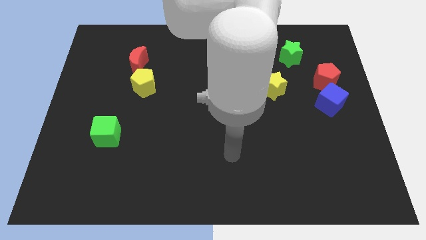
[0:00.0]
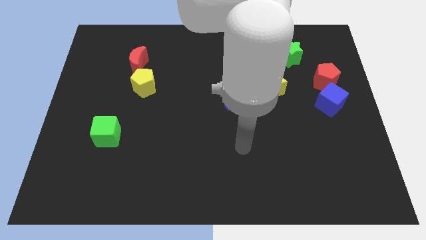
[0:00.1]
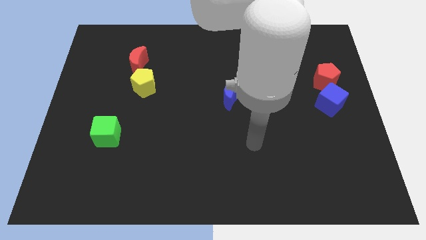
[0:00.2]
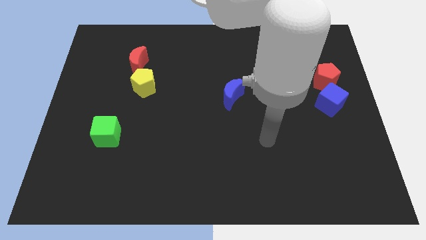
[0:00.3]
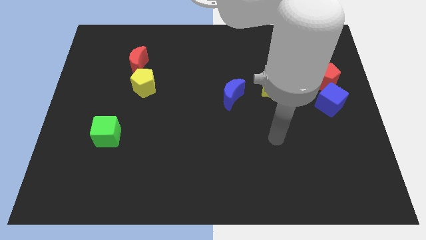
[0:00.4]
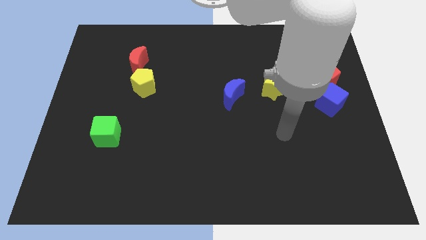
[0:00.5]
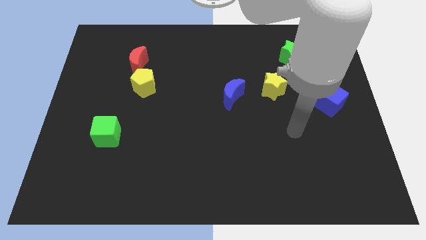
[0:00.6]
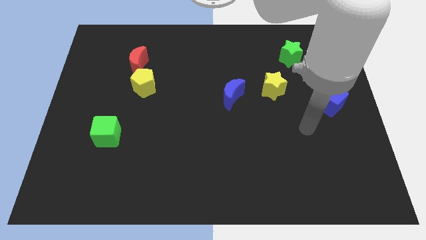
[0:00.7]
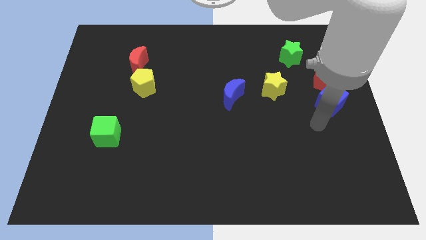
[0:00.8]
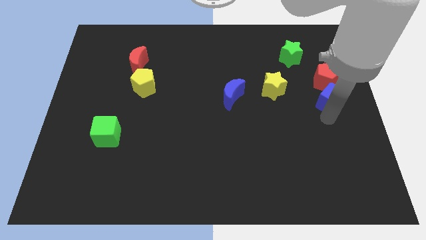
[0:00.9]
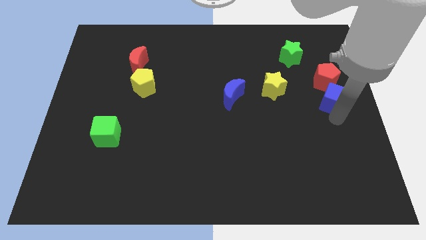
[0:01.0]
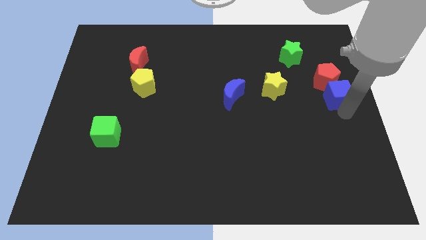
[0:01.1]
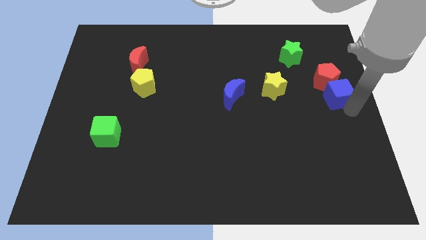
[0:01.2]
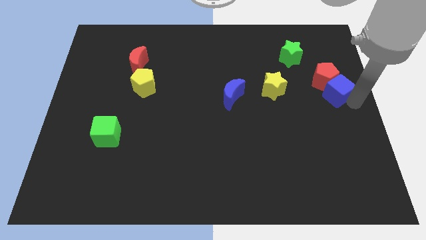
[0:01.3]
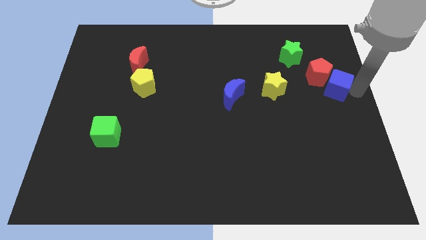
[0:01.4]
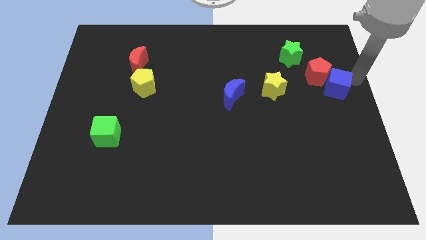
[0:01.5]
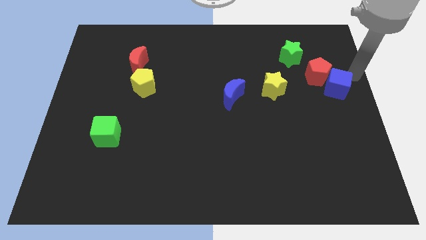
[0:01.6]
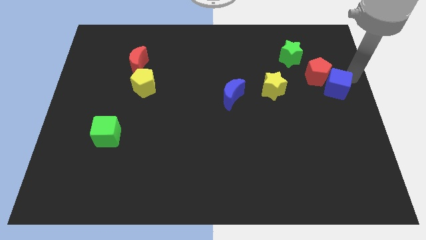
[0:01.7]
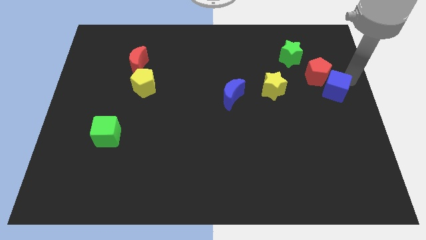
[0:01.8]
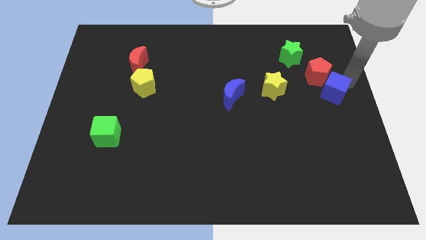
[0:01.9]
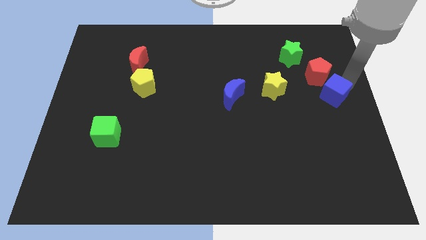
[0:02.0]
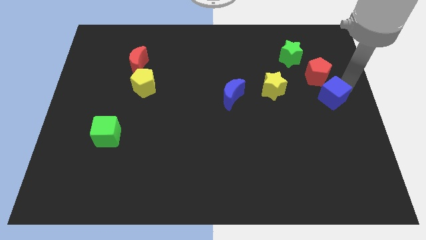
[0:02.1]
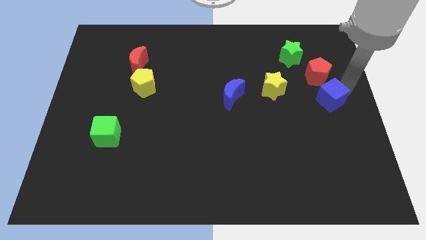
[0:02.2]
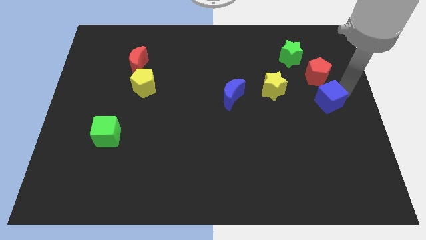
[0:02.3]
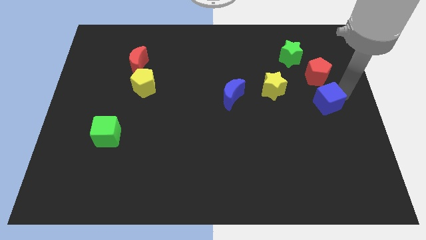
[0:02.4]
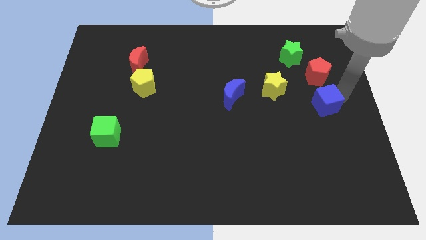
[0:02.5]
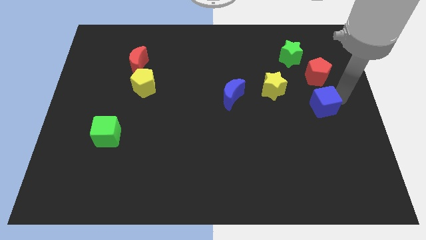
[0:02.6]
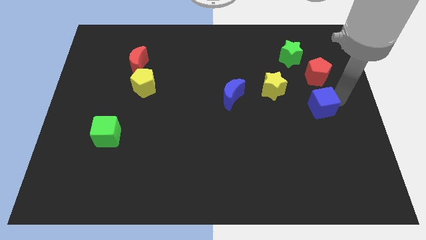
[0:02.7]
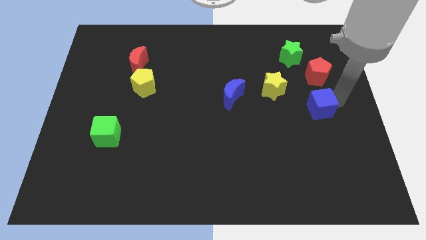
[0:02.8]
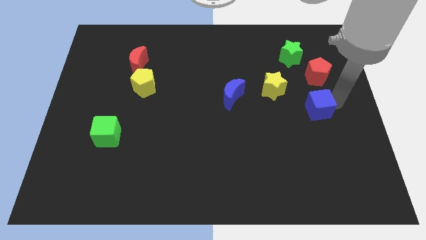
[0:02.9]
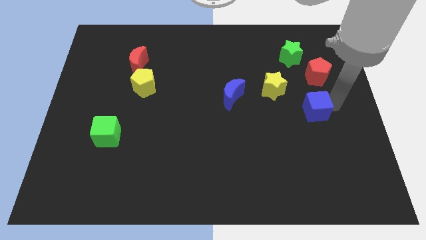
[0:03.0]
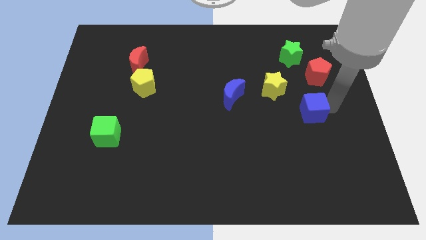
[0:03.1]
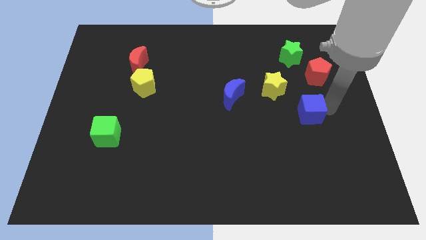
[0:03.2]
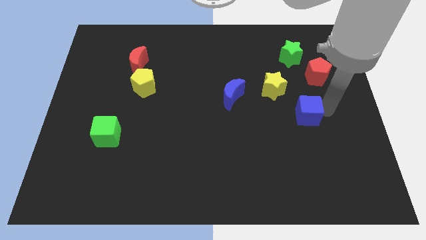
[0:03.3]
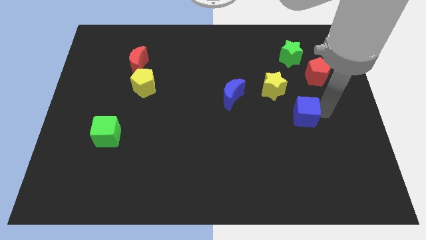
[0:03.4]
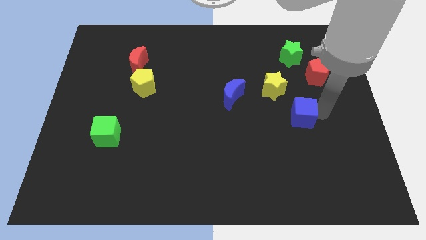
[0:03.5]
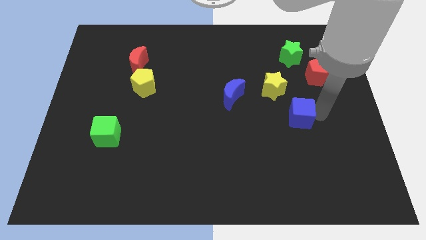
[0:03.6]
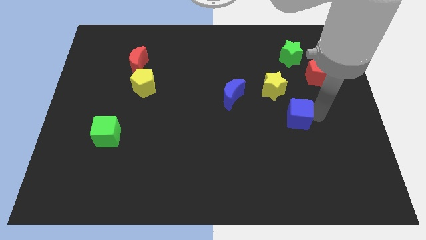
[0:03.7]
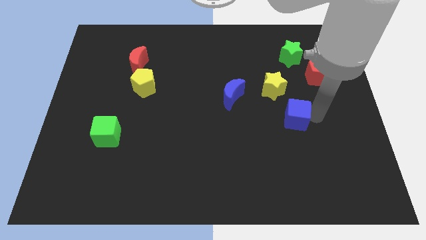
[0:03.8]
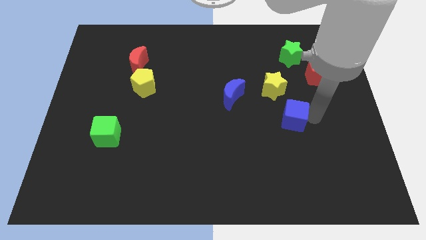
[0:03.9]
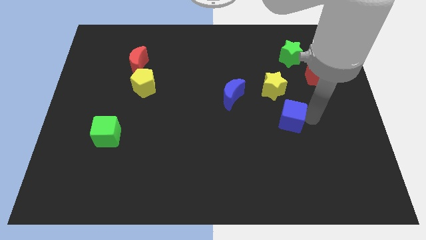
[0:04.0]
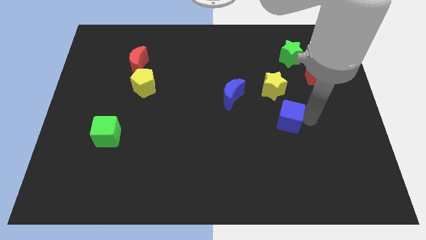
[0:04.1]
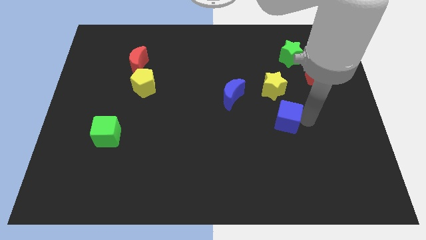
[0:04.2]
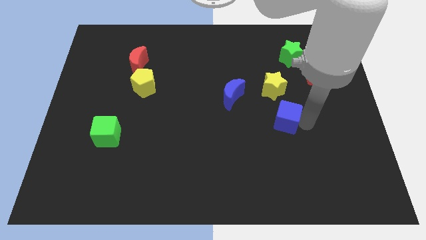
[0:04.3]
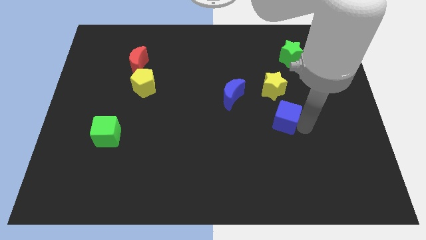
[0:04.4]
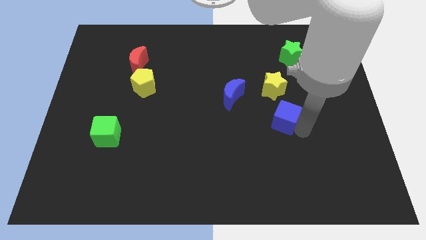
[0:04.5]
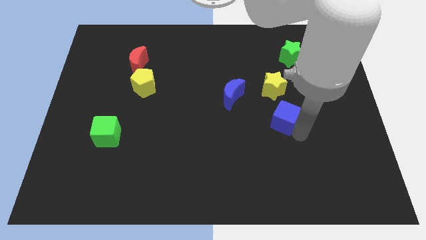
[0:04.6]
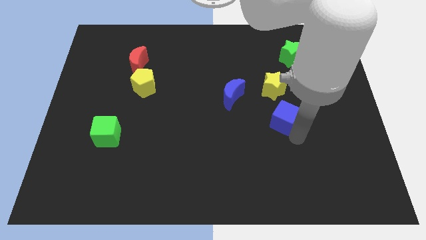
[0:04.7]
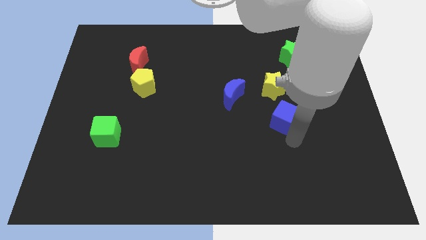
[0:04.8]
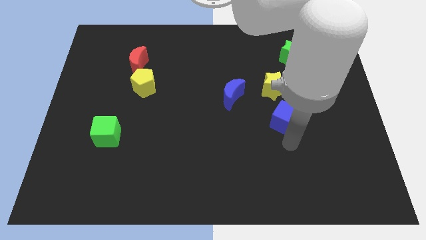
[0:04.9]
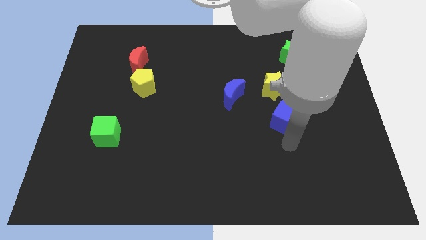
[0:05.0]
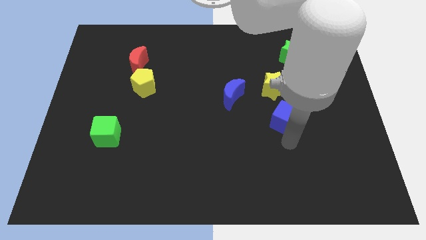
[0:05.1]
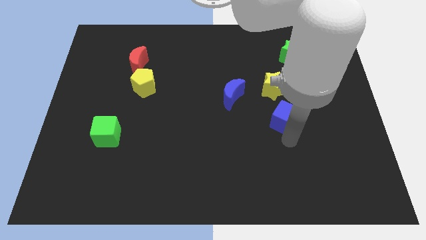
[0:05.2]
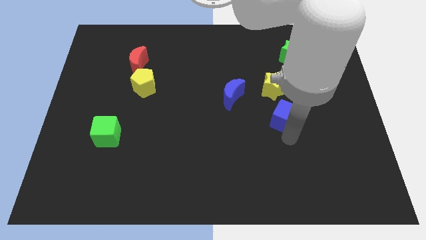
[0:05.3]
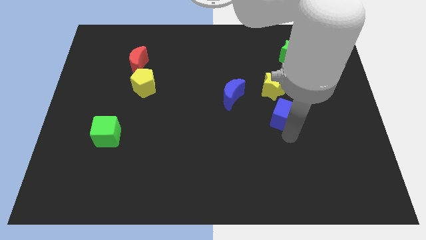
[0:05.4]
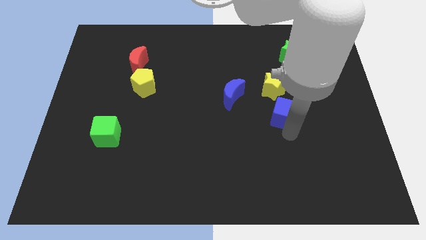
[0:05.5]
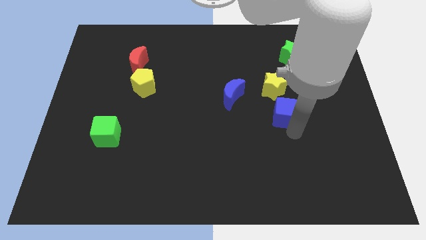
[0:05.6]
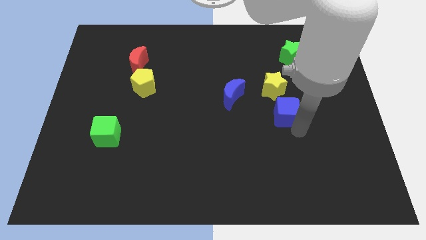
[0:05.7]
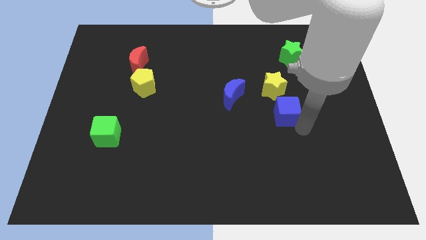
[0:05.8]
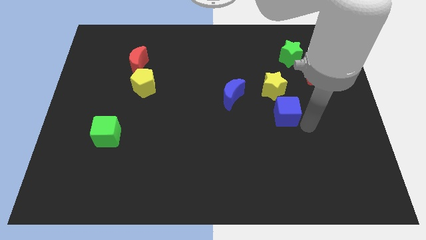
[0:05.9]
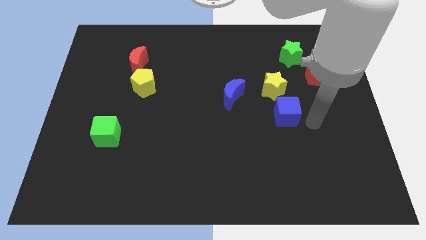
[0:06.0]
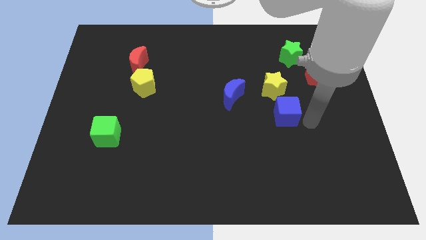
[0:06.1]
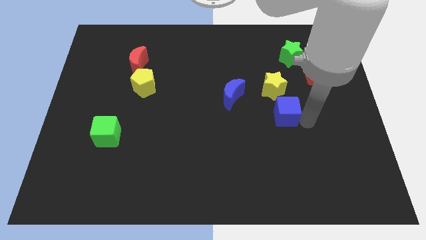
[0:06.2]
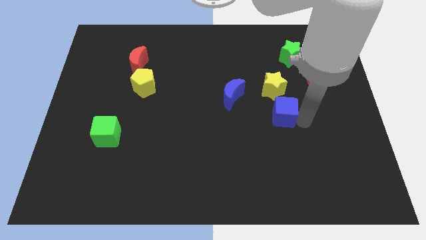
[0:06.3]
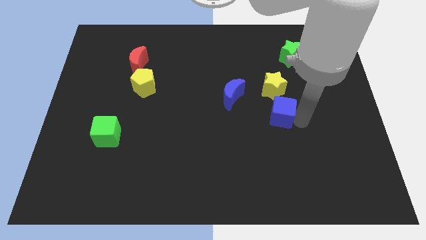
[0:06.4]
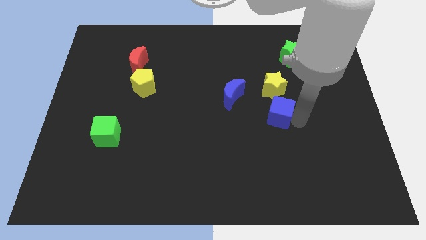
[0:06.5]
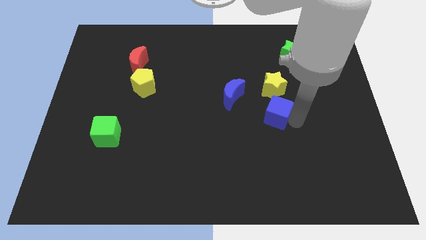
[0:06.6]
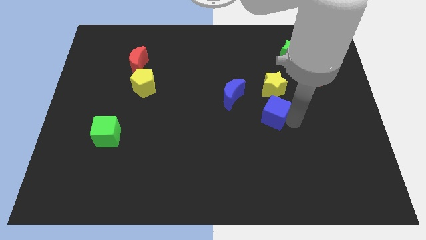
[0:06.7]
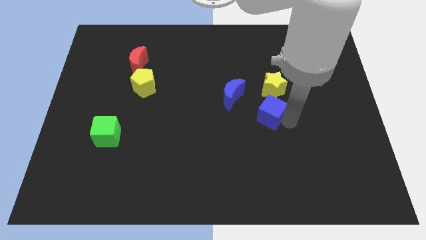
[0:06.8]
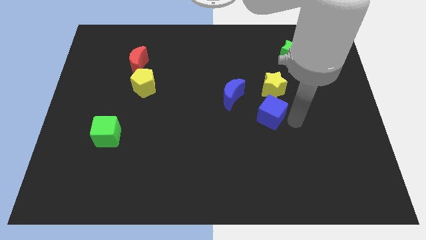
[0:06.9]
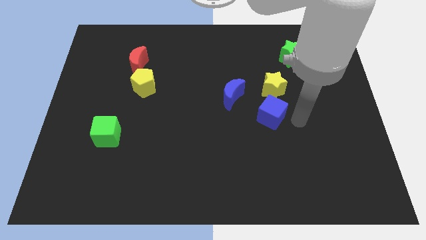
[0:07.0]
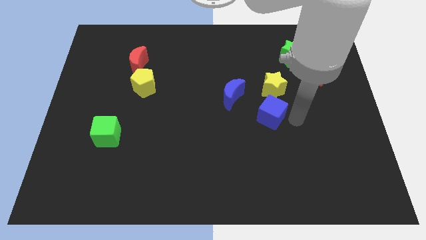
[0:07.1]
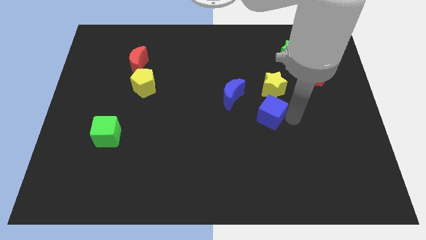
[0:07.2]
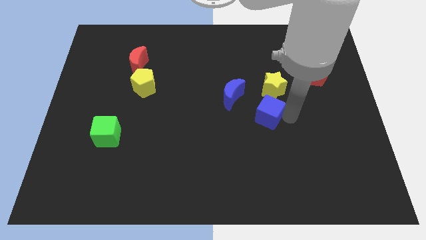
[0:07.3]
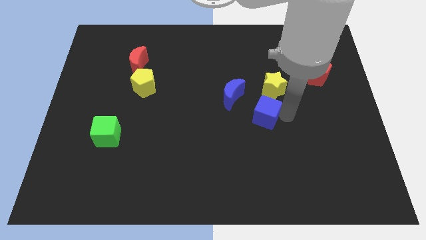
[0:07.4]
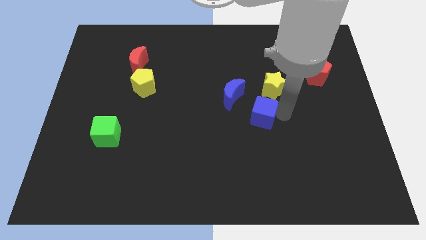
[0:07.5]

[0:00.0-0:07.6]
slide the blue cube to the center
